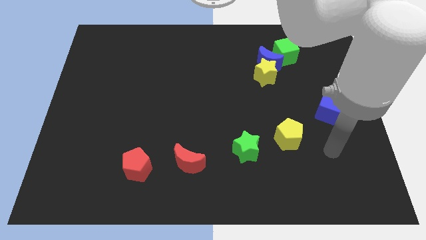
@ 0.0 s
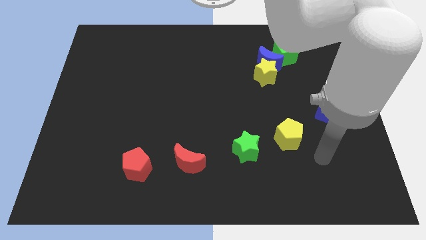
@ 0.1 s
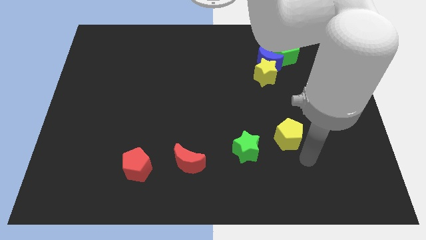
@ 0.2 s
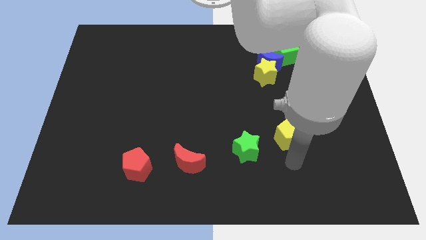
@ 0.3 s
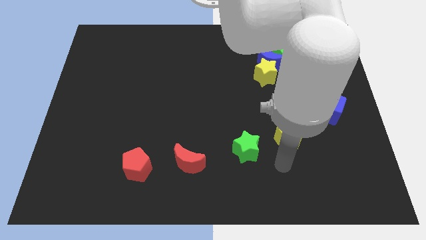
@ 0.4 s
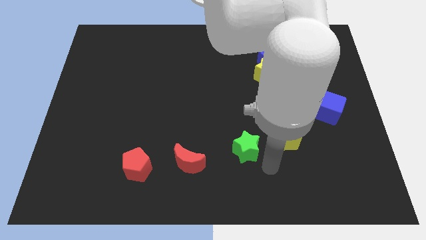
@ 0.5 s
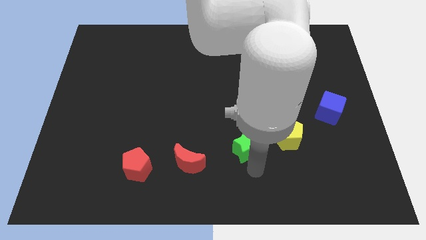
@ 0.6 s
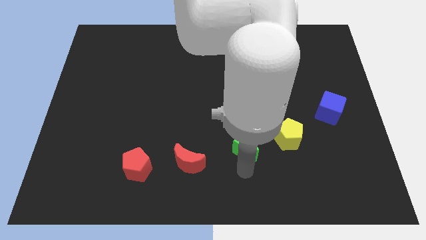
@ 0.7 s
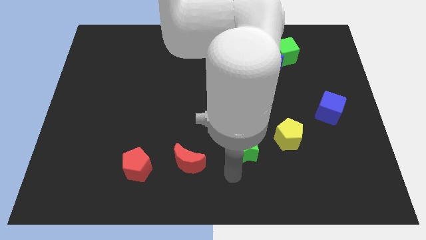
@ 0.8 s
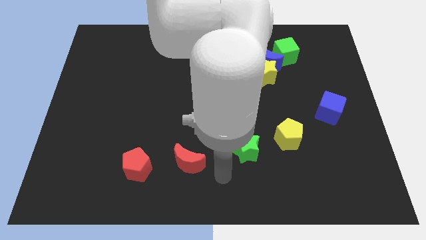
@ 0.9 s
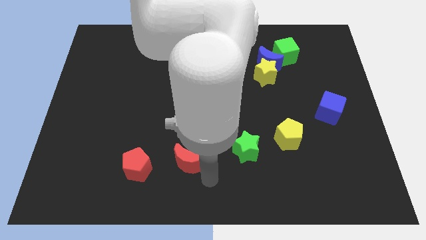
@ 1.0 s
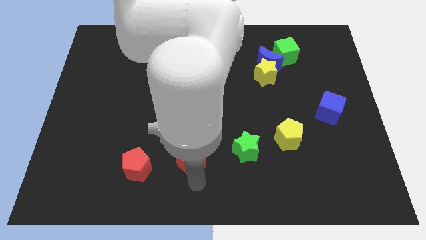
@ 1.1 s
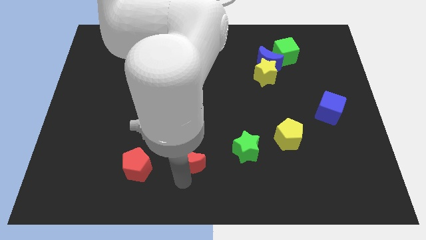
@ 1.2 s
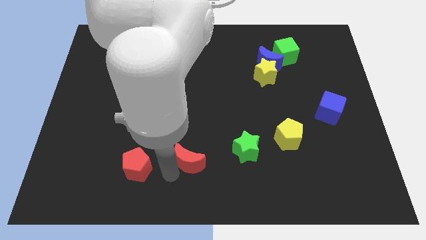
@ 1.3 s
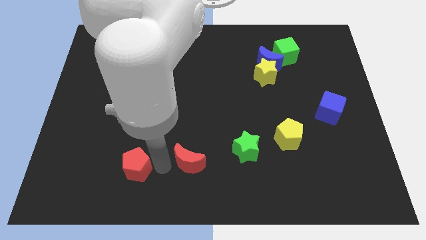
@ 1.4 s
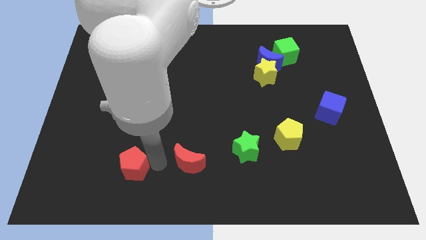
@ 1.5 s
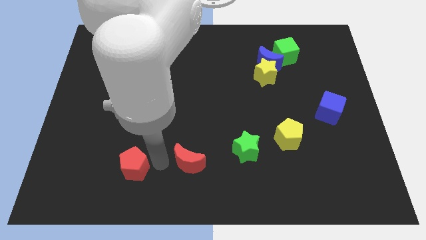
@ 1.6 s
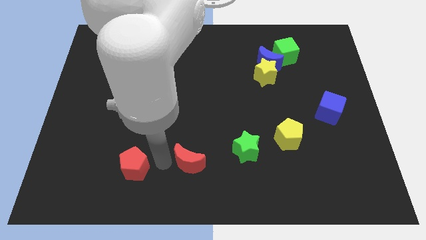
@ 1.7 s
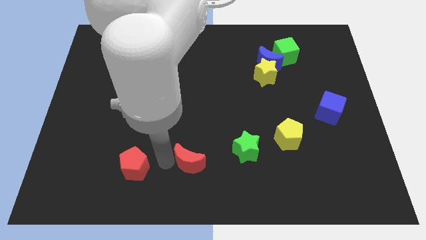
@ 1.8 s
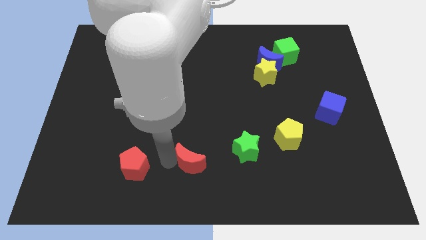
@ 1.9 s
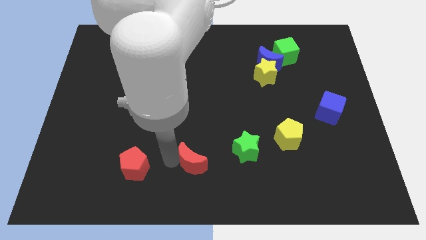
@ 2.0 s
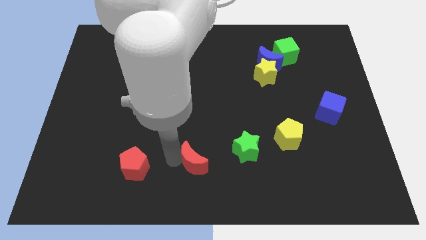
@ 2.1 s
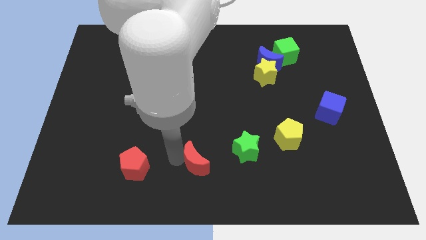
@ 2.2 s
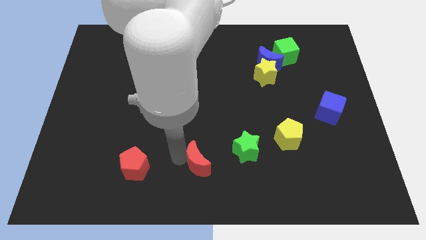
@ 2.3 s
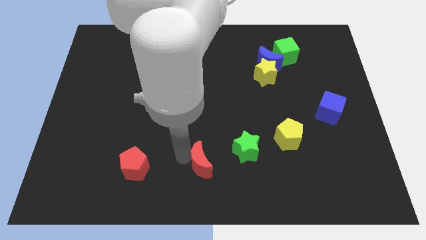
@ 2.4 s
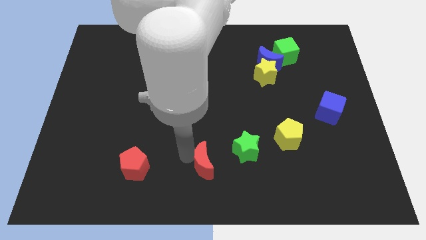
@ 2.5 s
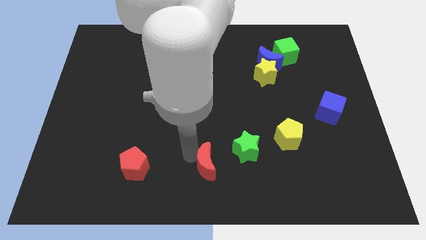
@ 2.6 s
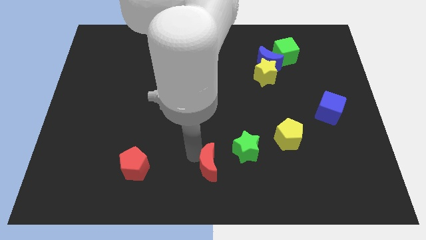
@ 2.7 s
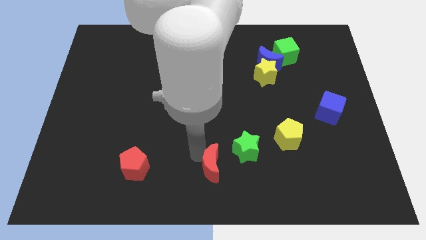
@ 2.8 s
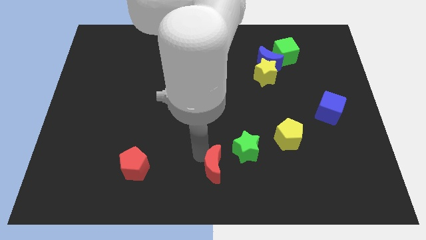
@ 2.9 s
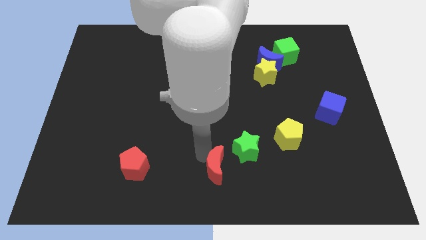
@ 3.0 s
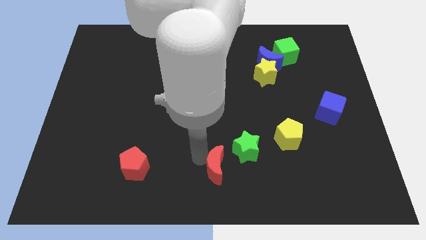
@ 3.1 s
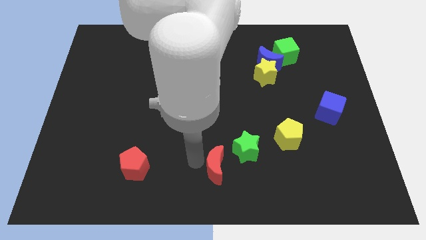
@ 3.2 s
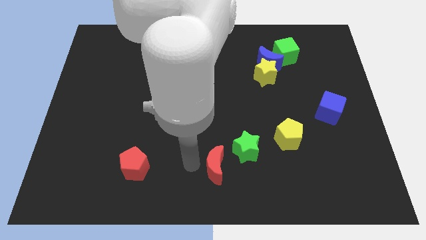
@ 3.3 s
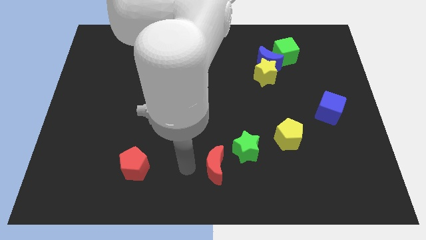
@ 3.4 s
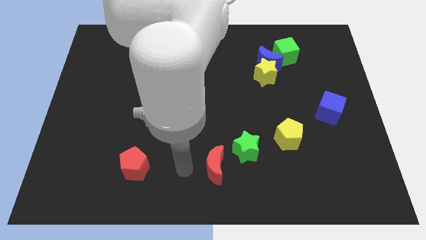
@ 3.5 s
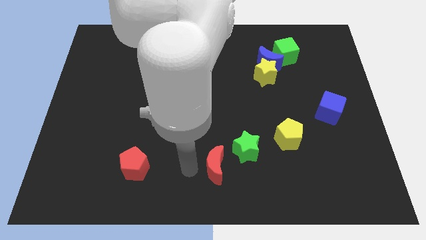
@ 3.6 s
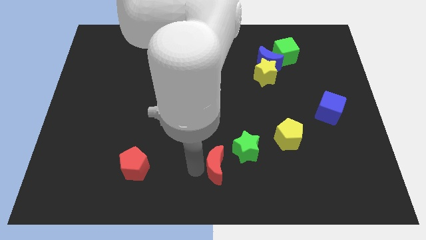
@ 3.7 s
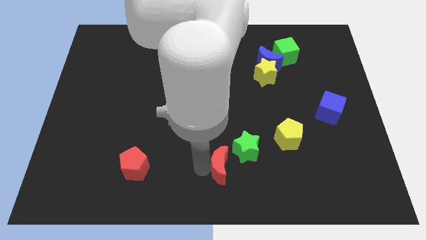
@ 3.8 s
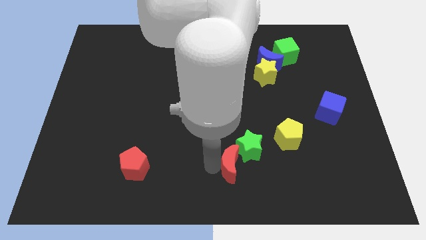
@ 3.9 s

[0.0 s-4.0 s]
slightly move the red moon right

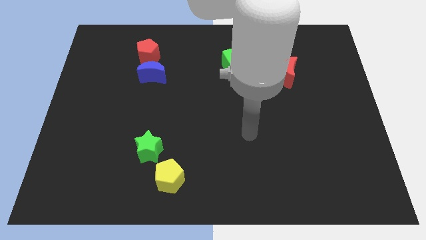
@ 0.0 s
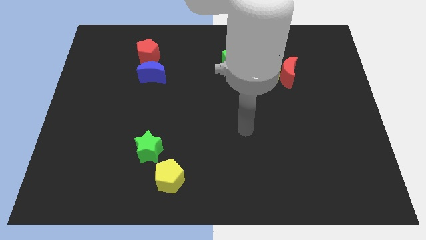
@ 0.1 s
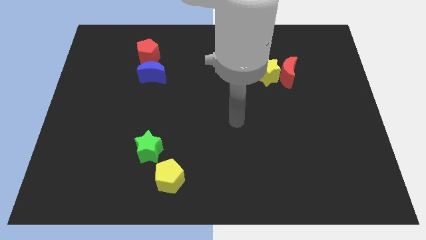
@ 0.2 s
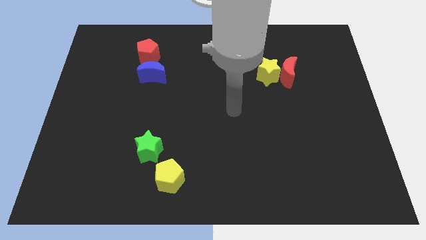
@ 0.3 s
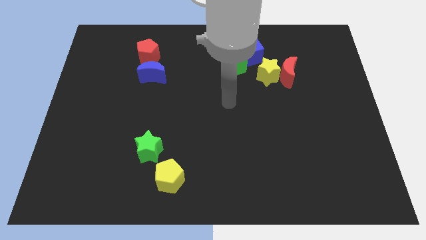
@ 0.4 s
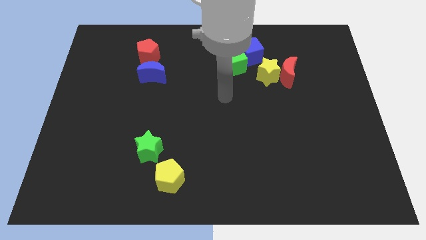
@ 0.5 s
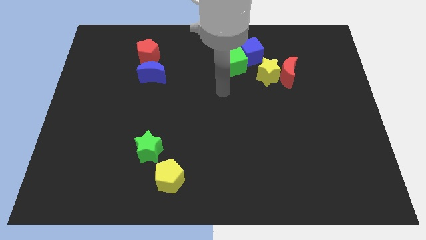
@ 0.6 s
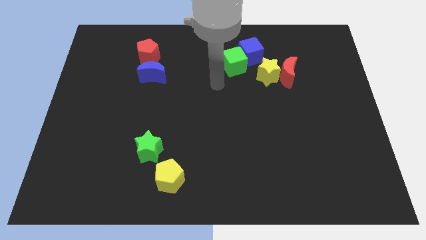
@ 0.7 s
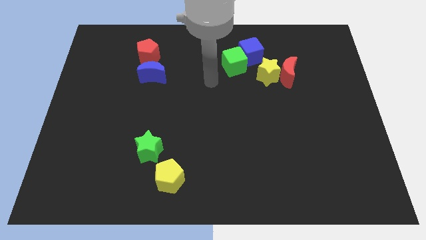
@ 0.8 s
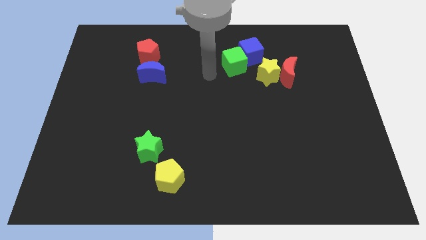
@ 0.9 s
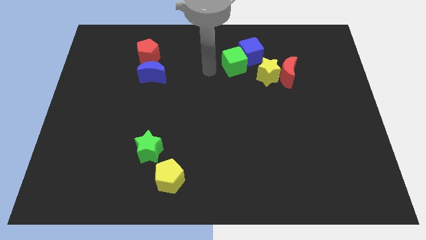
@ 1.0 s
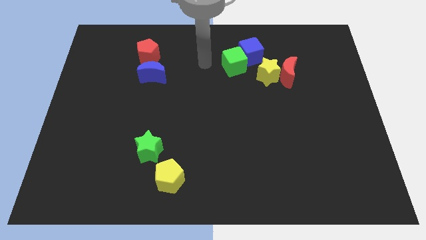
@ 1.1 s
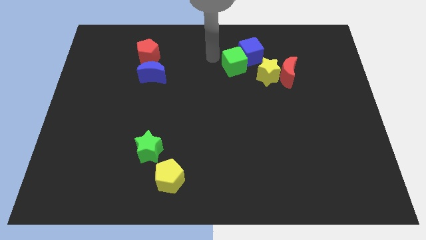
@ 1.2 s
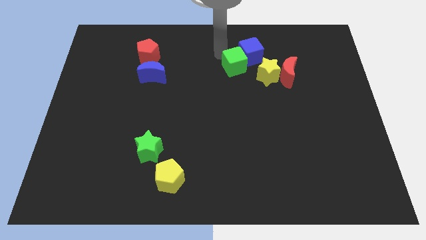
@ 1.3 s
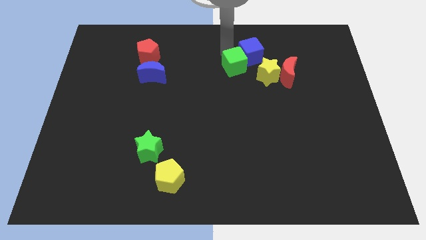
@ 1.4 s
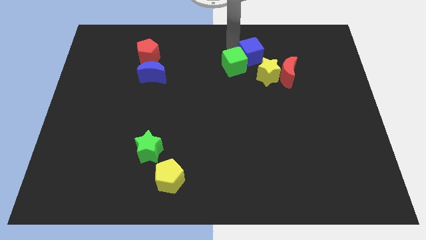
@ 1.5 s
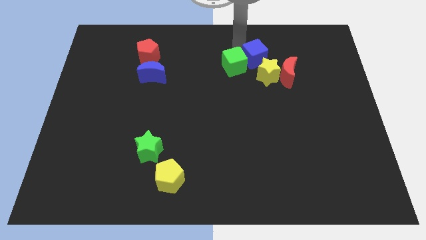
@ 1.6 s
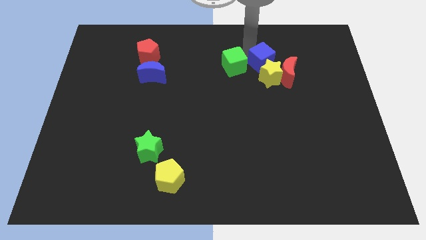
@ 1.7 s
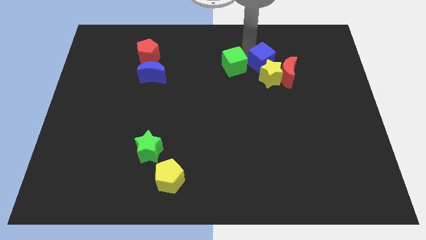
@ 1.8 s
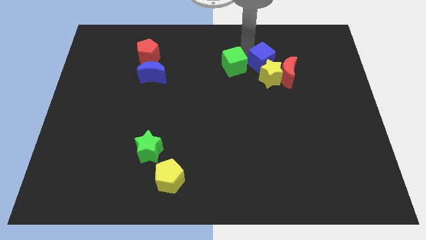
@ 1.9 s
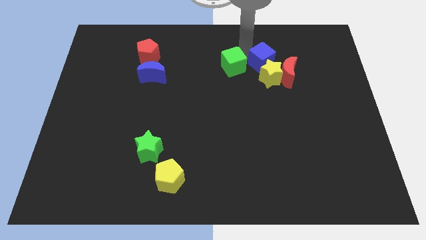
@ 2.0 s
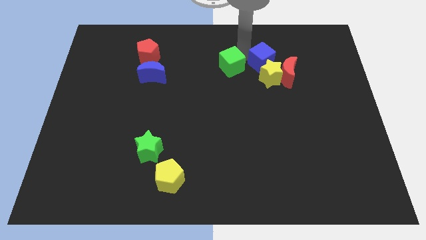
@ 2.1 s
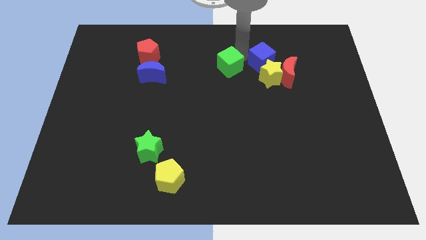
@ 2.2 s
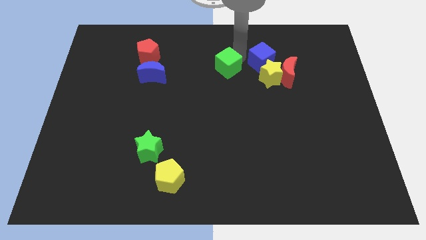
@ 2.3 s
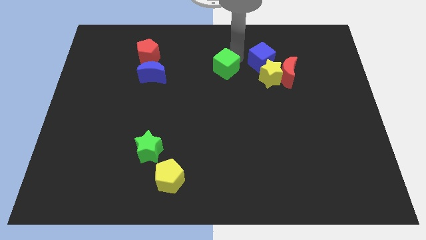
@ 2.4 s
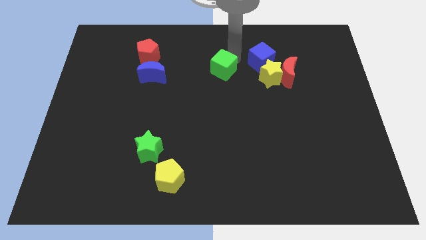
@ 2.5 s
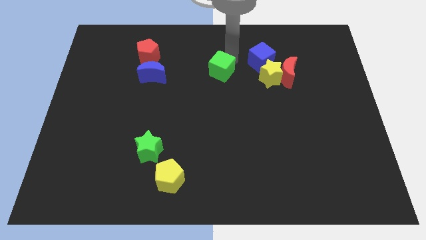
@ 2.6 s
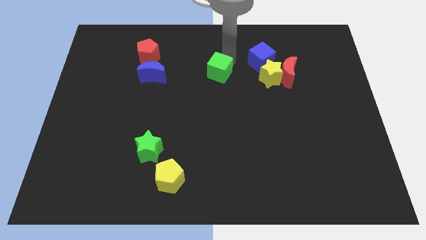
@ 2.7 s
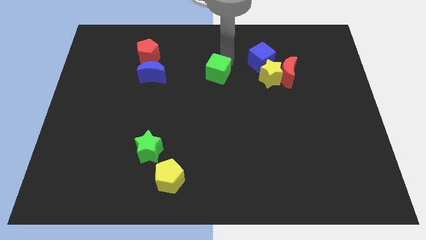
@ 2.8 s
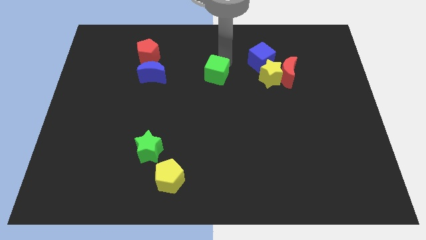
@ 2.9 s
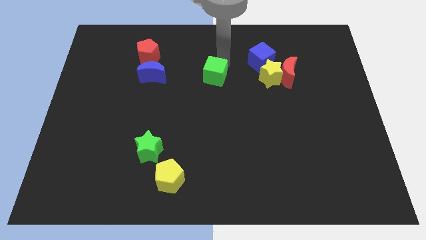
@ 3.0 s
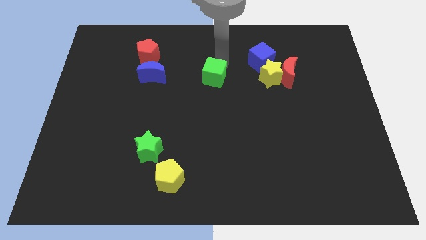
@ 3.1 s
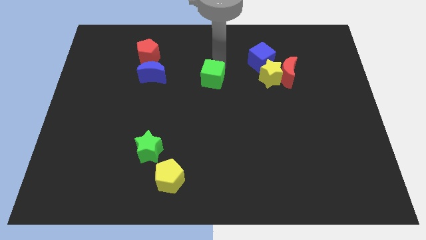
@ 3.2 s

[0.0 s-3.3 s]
slide the green cube a little downwards and then to the left

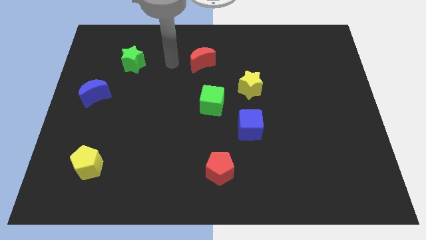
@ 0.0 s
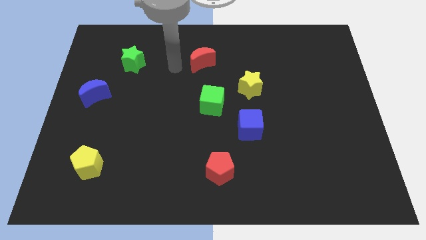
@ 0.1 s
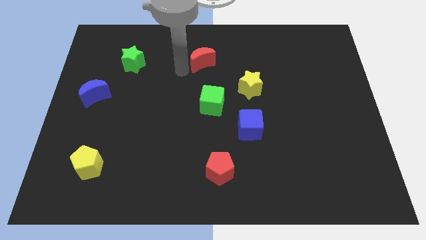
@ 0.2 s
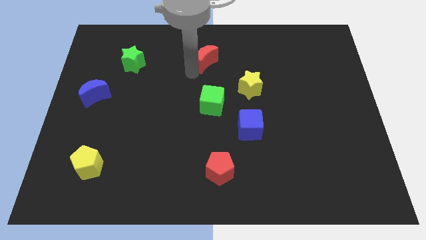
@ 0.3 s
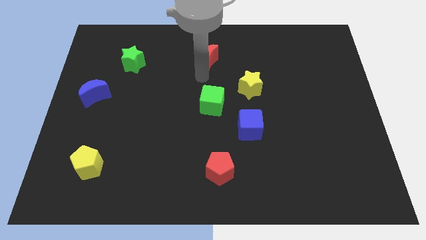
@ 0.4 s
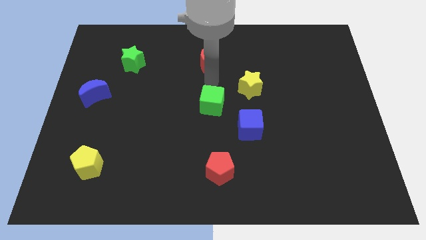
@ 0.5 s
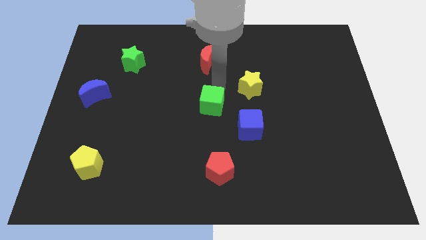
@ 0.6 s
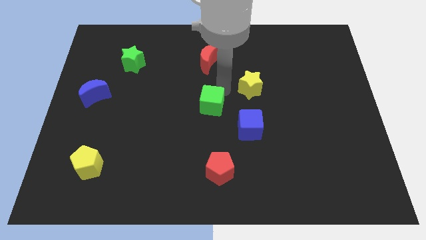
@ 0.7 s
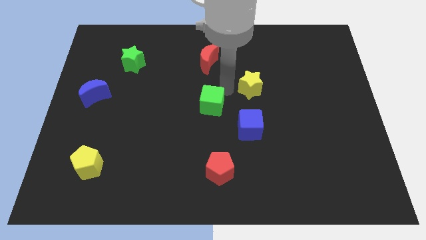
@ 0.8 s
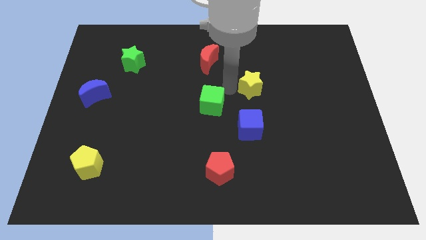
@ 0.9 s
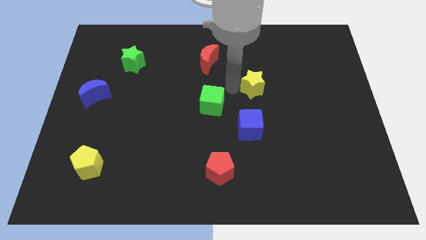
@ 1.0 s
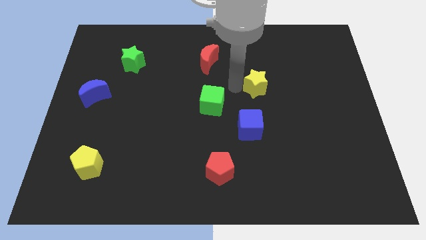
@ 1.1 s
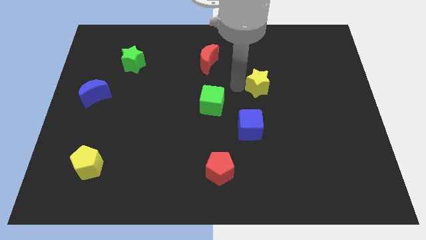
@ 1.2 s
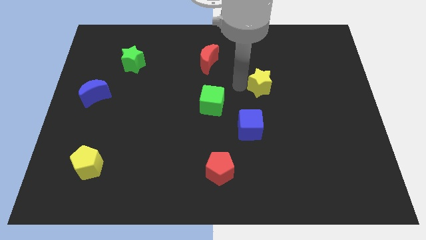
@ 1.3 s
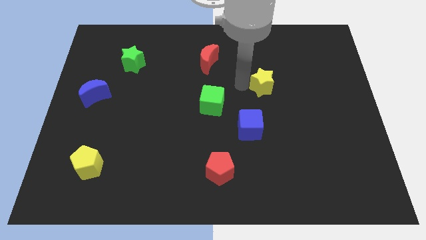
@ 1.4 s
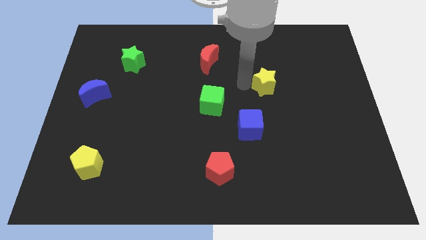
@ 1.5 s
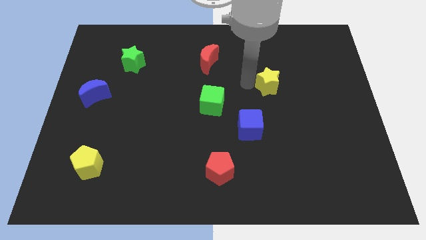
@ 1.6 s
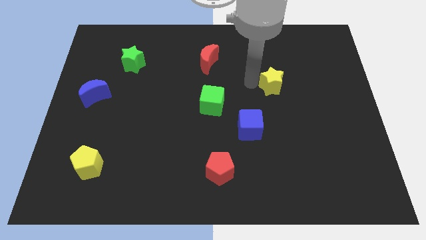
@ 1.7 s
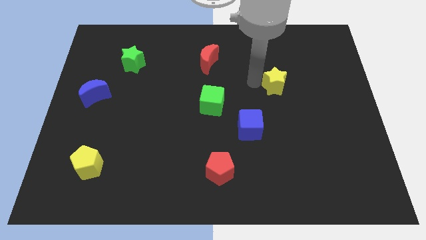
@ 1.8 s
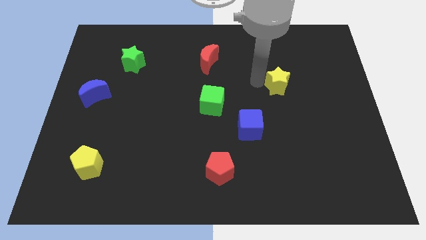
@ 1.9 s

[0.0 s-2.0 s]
slightly move the yellow star to the right
